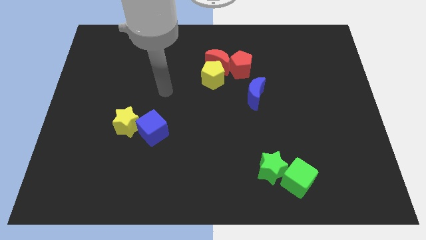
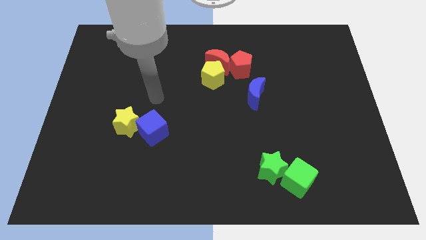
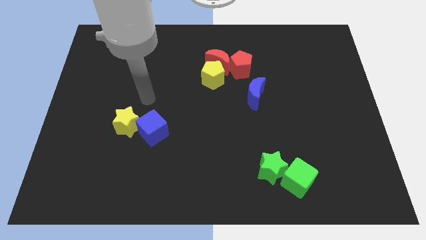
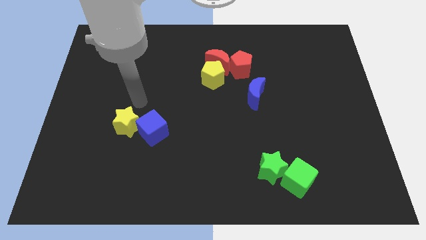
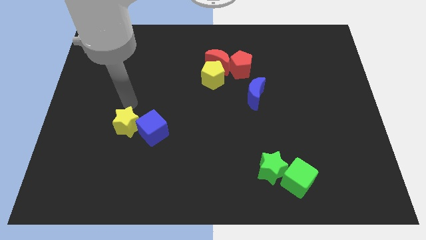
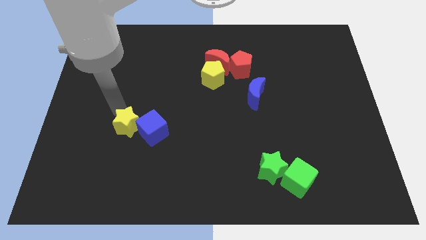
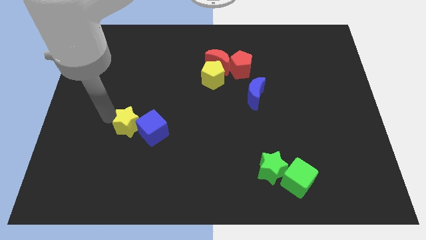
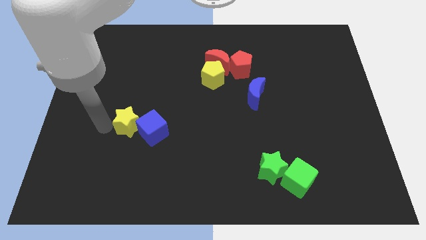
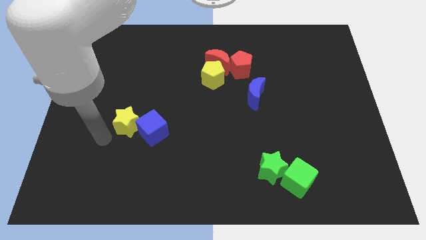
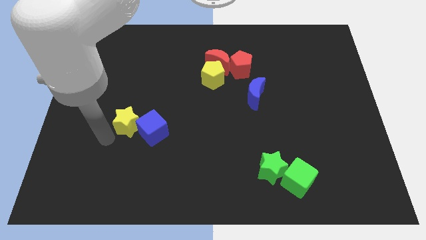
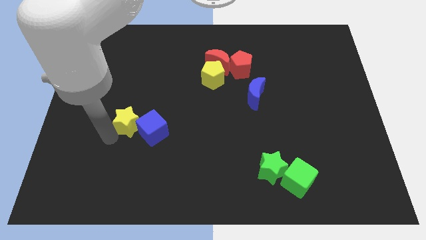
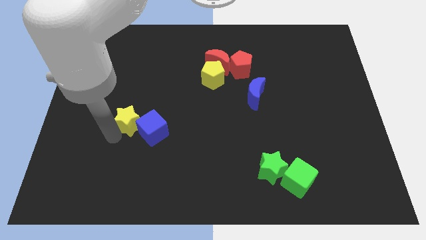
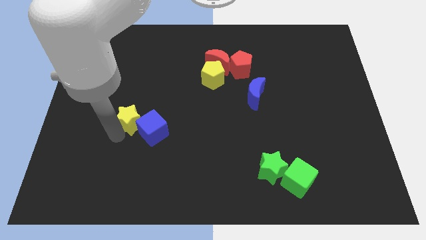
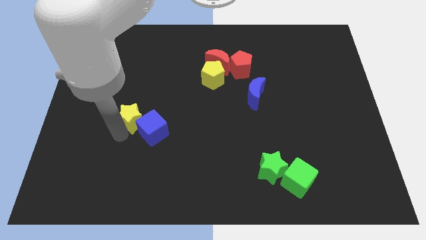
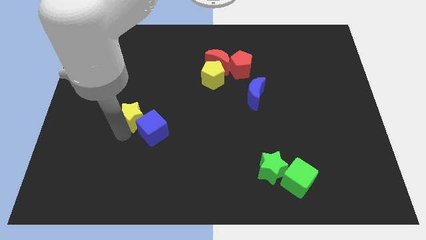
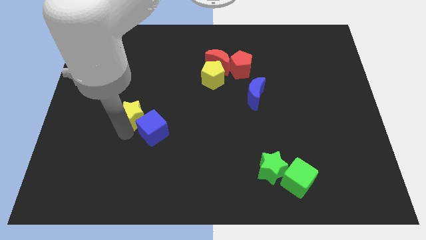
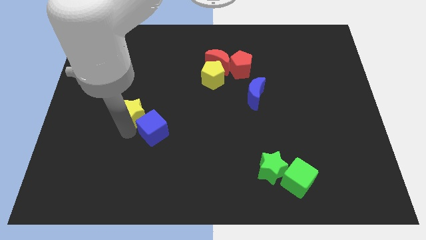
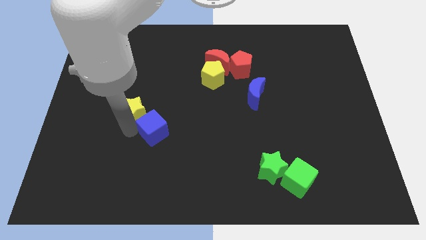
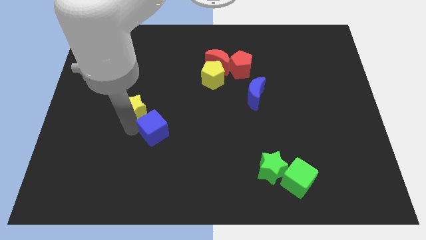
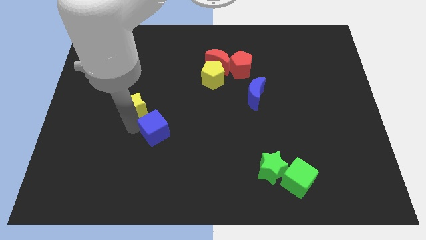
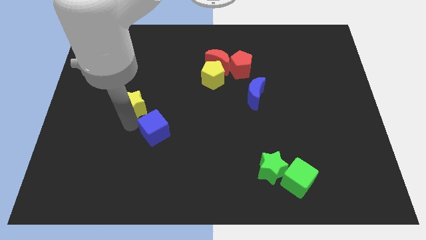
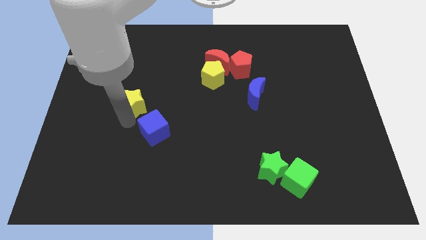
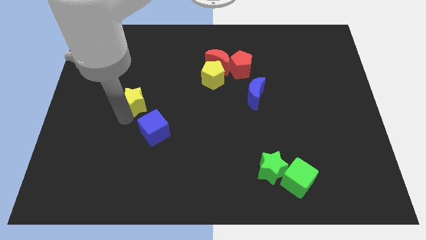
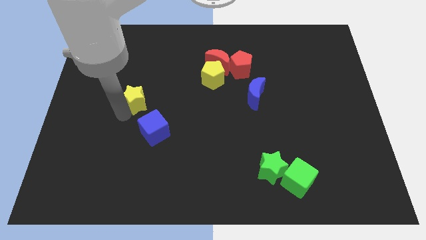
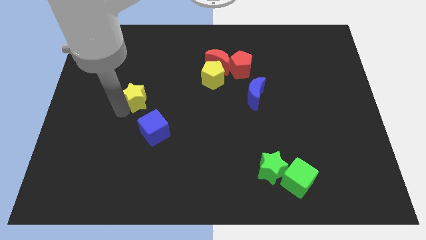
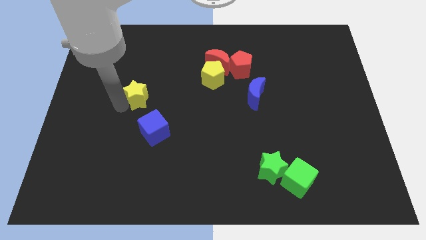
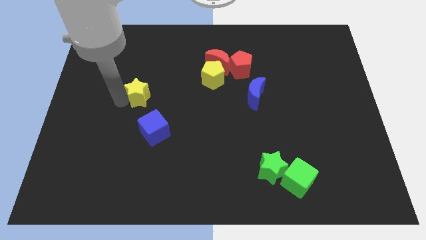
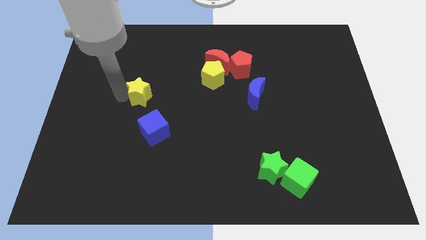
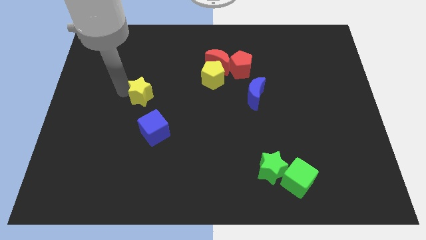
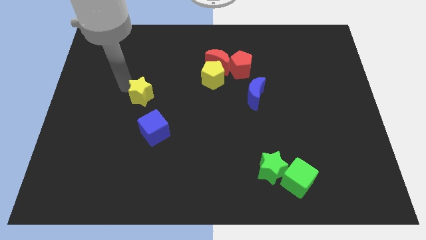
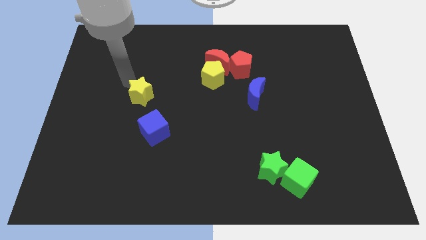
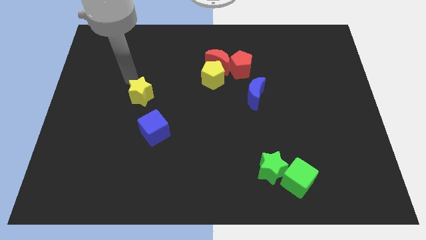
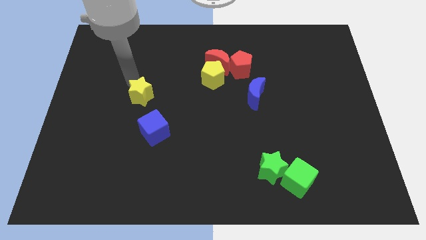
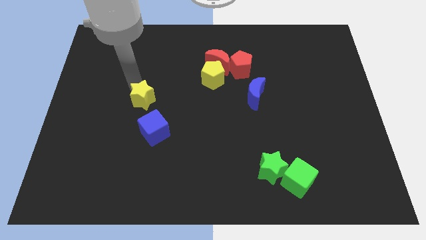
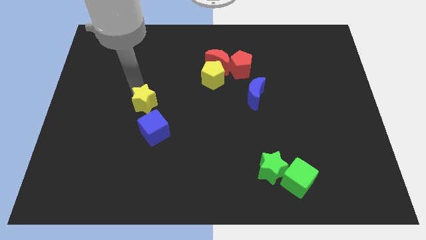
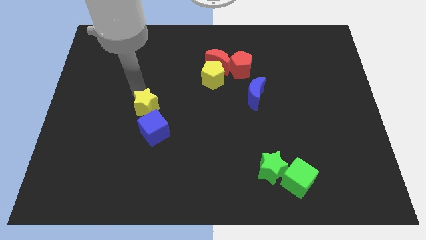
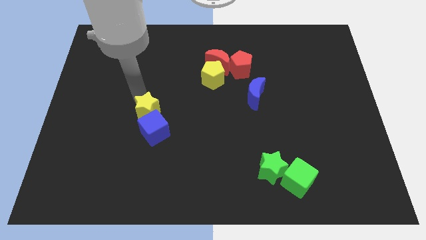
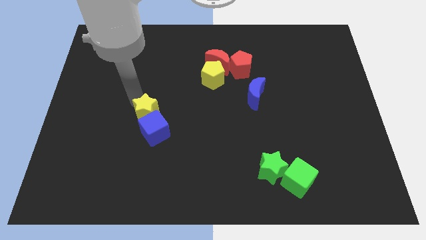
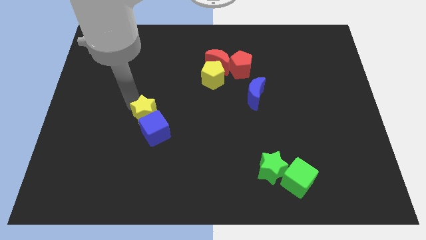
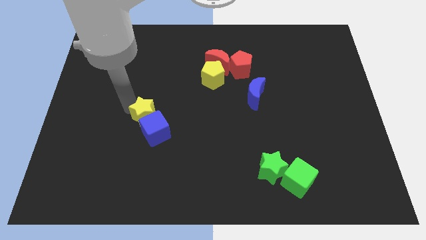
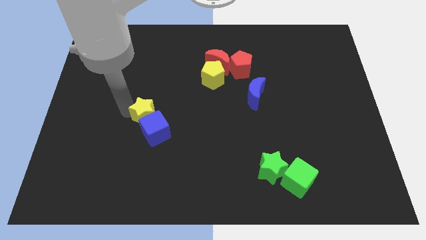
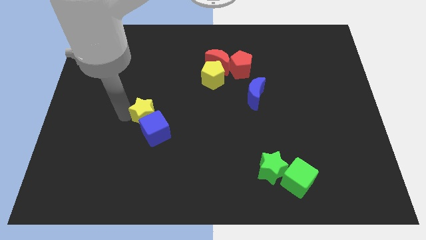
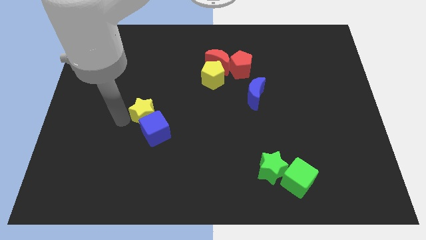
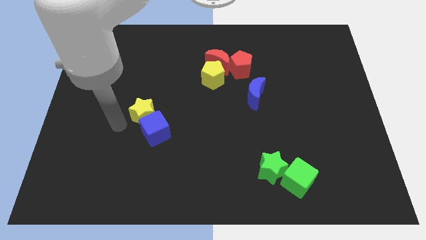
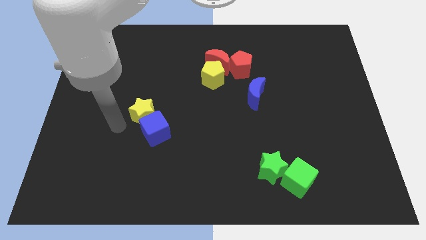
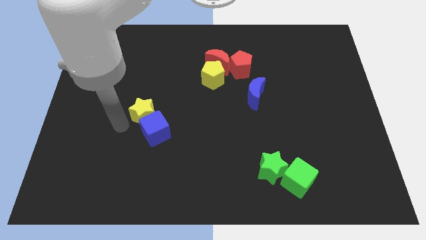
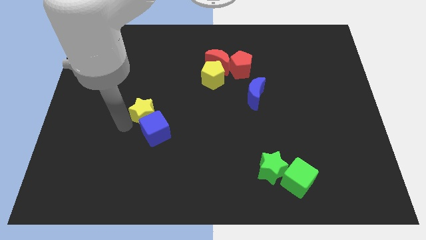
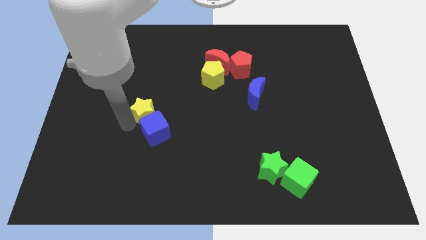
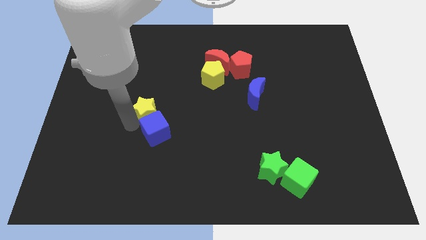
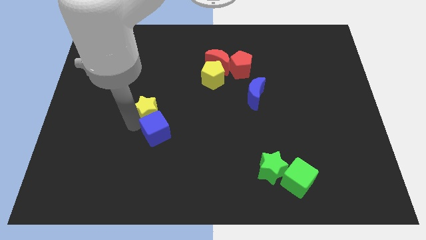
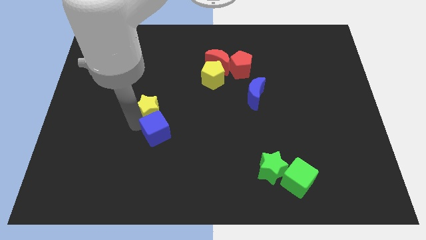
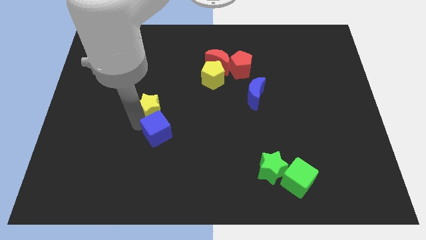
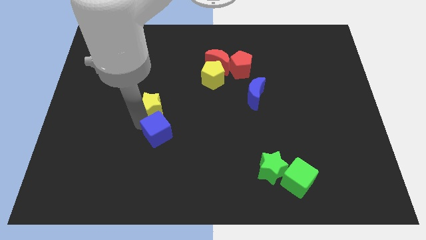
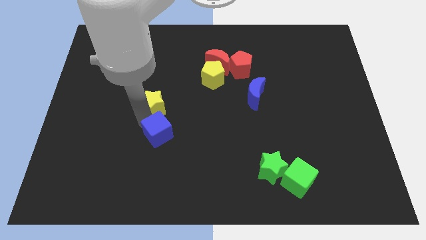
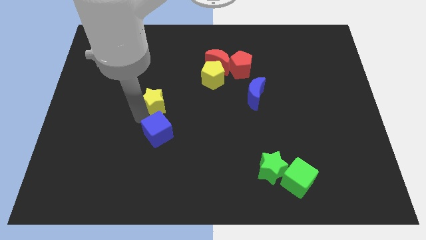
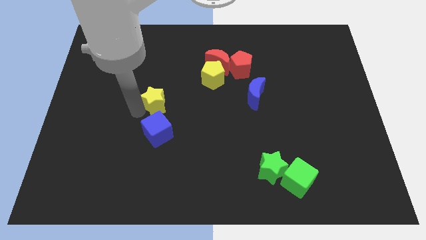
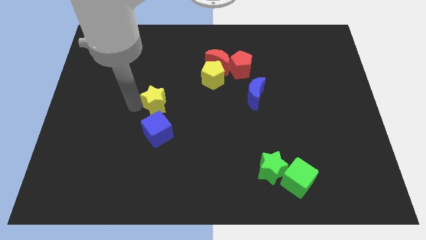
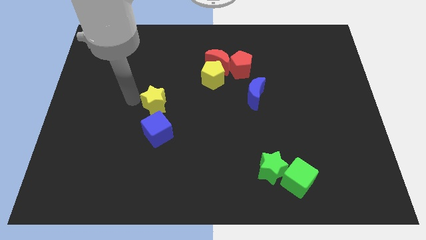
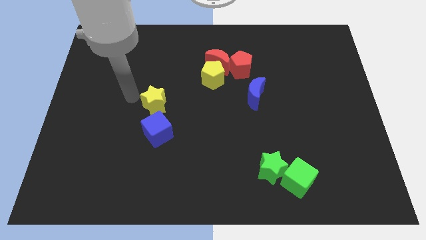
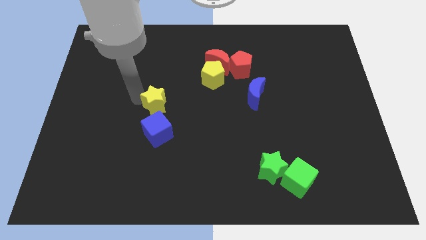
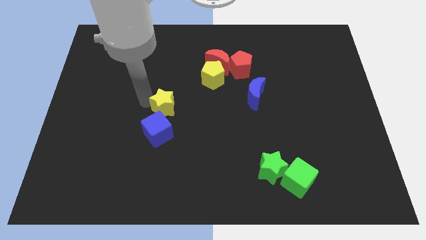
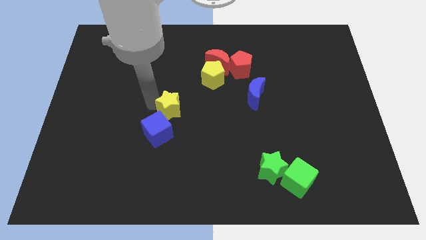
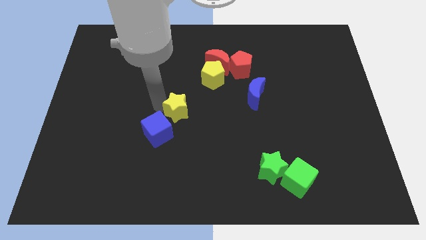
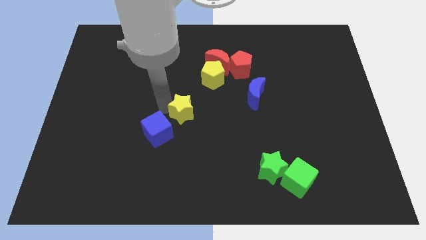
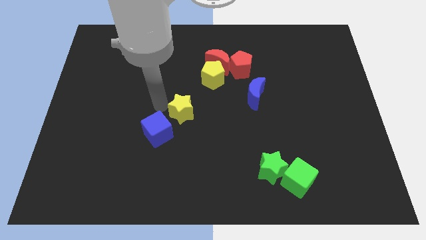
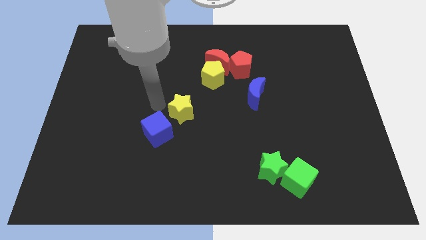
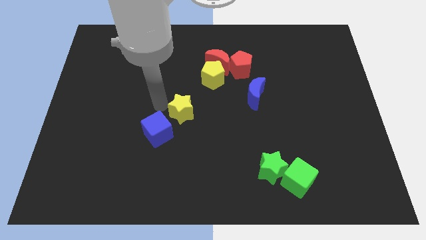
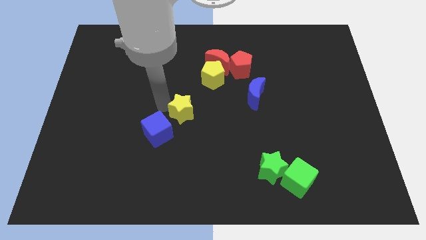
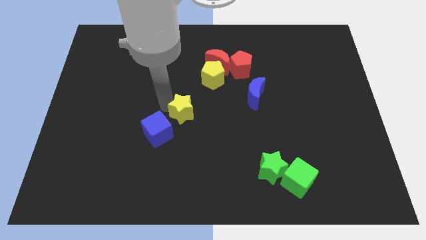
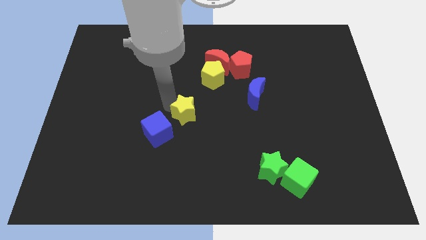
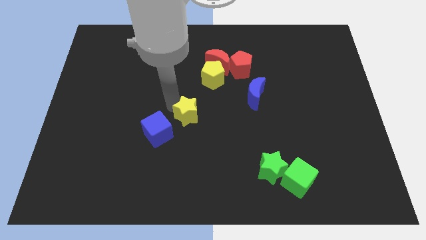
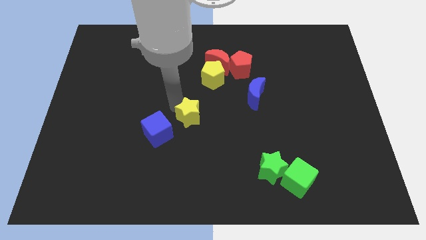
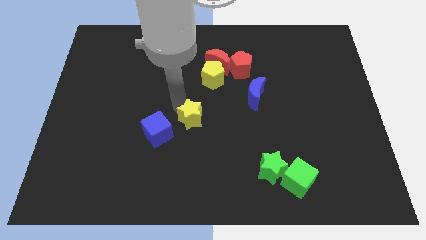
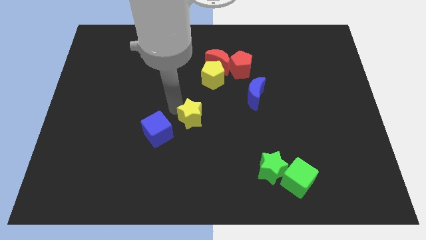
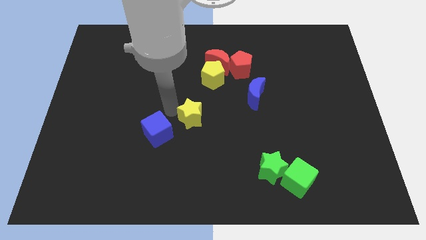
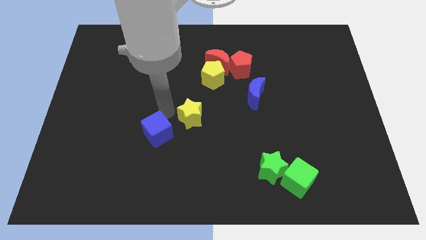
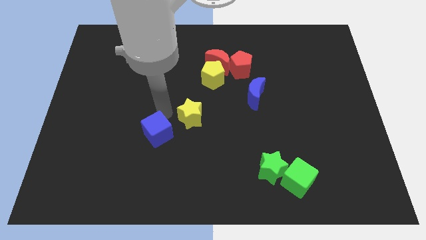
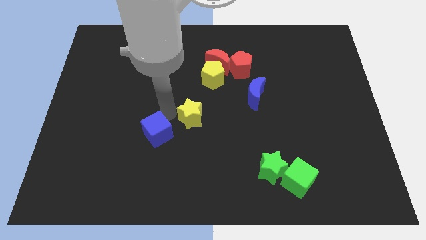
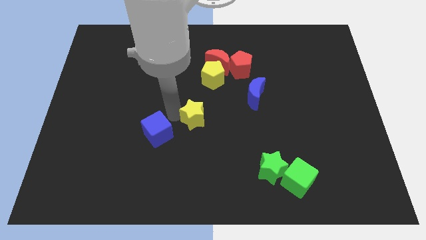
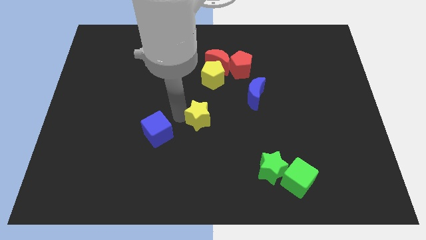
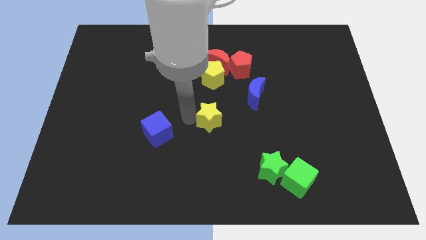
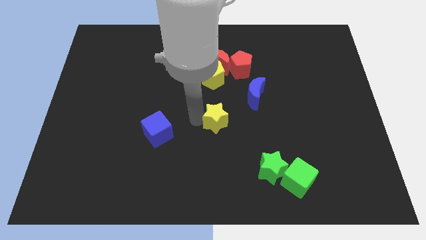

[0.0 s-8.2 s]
push the yellow star to the right
